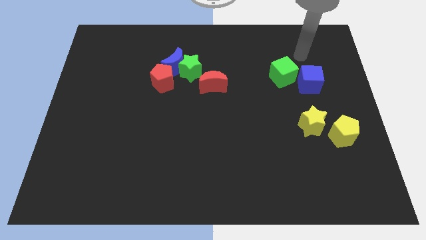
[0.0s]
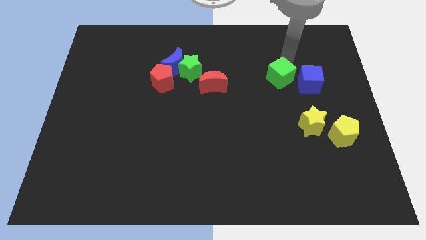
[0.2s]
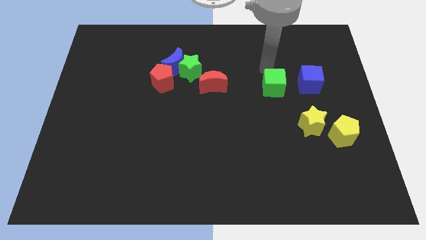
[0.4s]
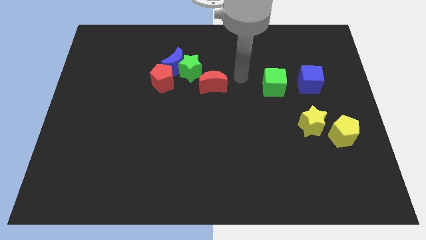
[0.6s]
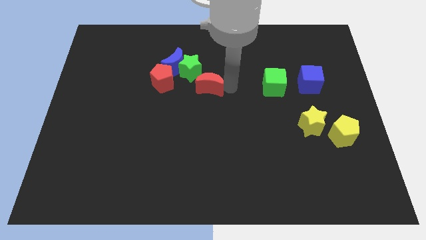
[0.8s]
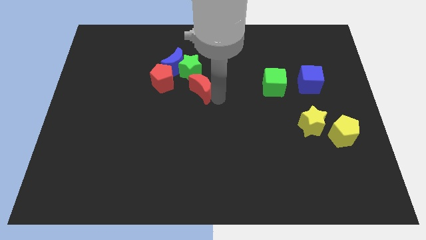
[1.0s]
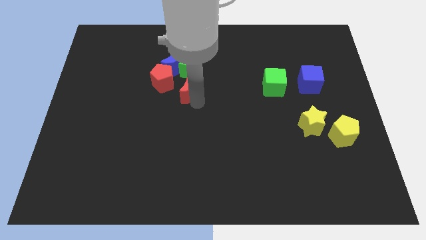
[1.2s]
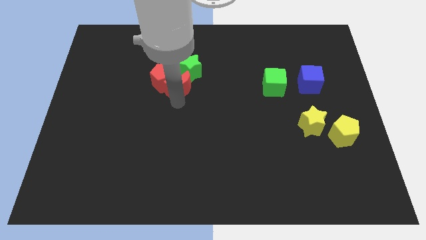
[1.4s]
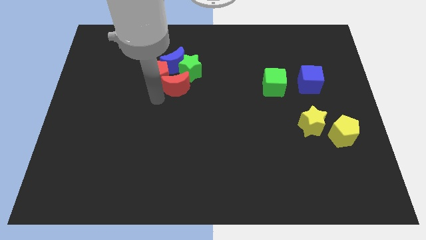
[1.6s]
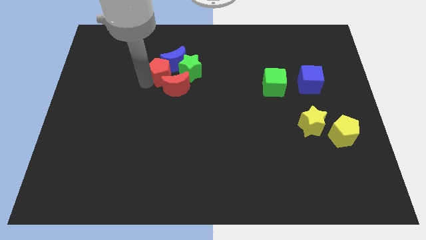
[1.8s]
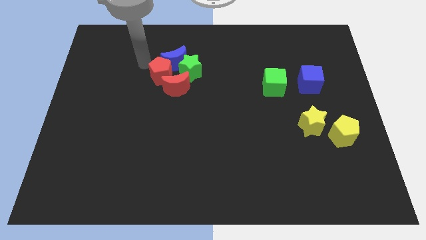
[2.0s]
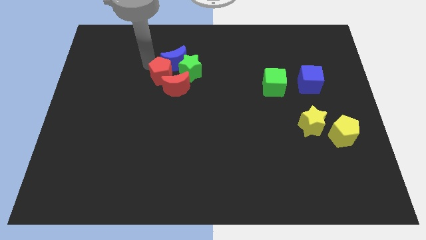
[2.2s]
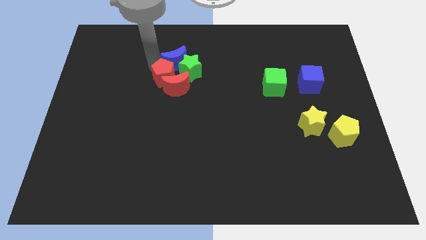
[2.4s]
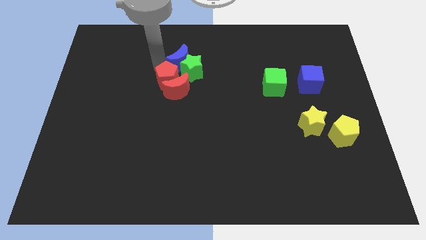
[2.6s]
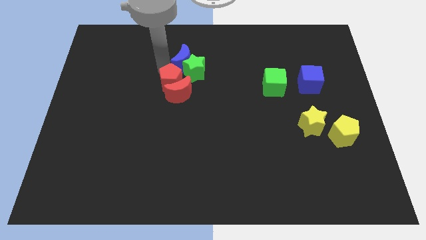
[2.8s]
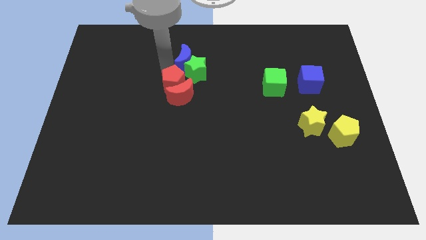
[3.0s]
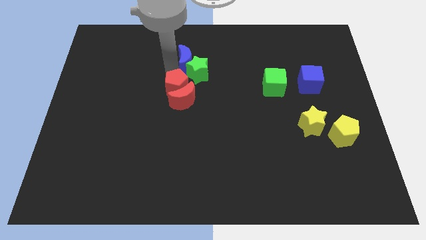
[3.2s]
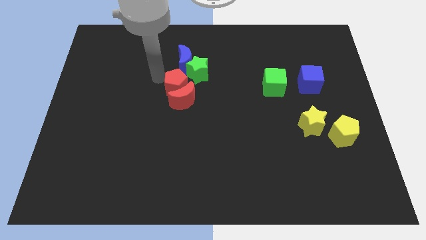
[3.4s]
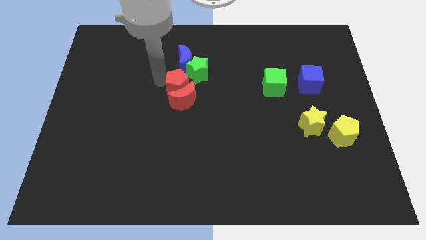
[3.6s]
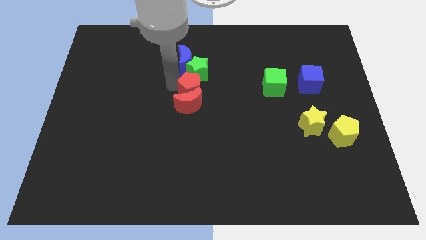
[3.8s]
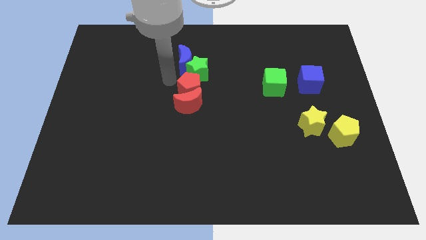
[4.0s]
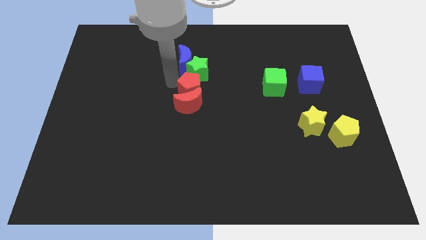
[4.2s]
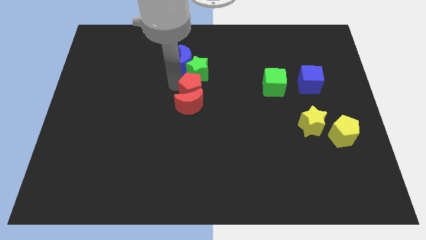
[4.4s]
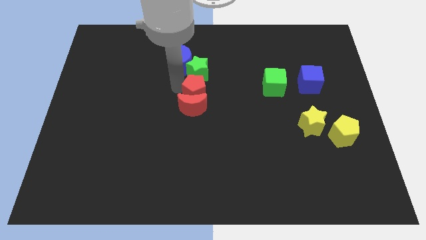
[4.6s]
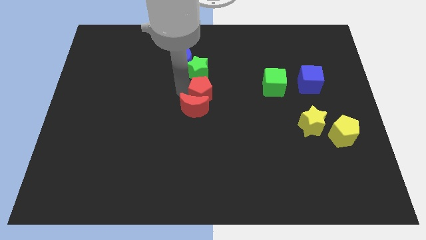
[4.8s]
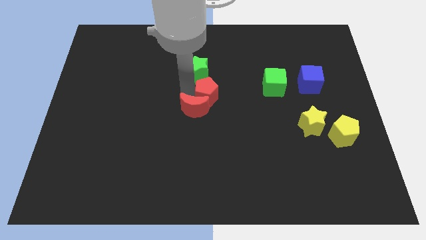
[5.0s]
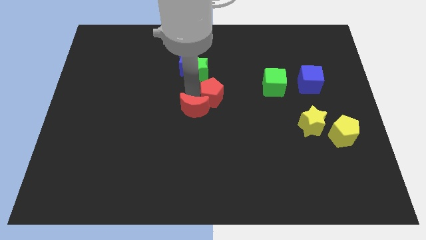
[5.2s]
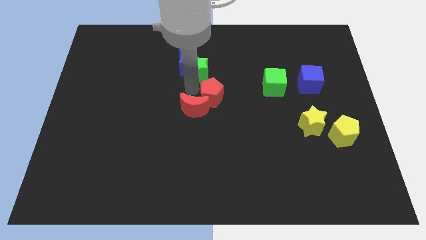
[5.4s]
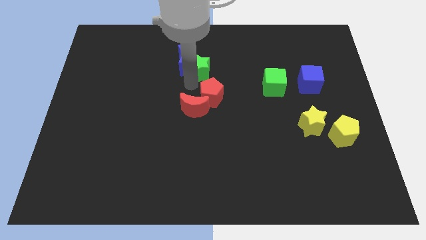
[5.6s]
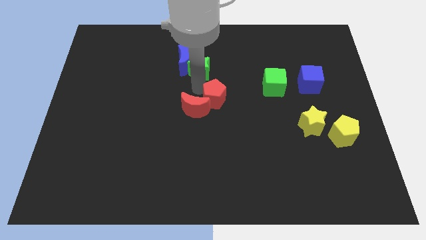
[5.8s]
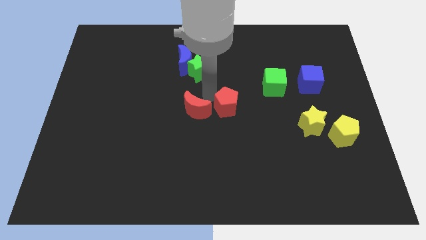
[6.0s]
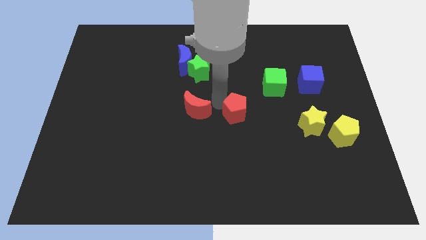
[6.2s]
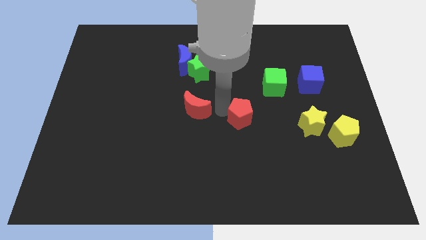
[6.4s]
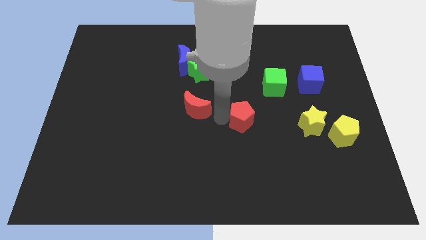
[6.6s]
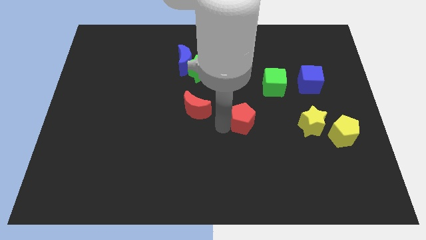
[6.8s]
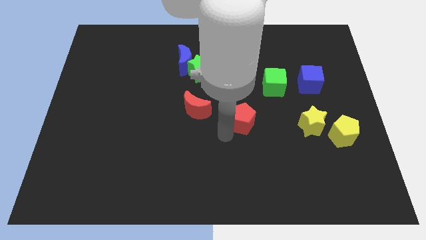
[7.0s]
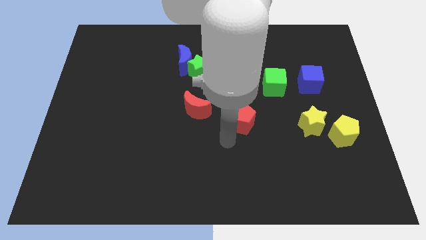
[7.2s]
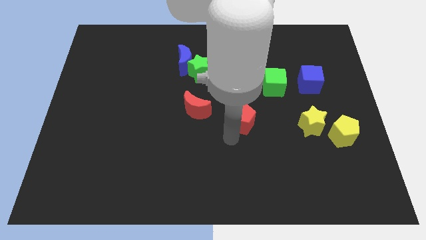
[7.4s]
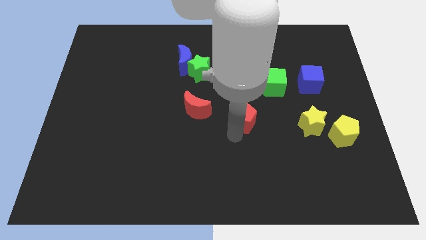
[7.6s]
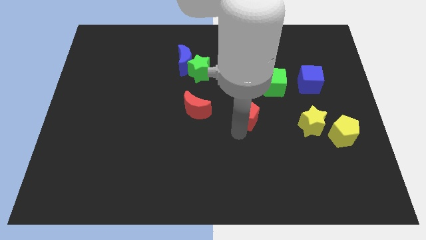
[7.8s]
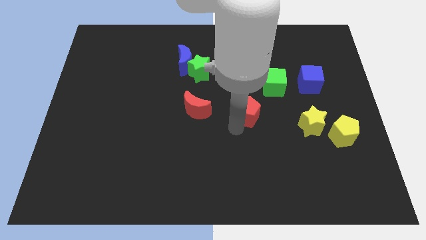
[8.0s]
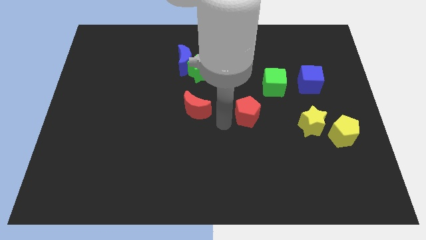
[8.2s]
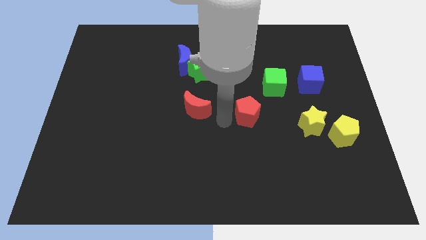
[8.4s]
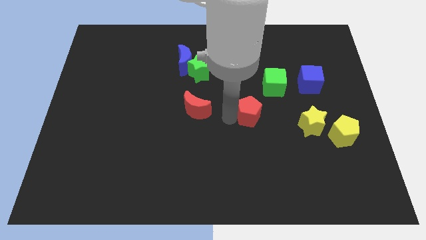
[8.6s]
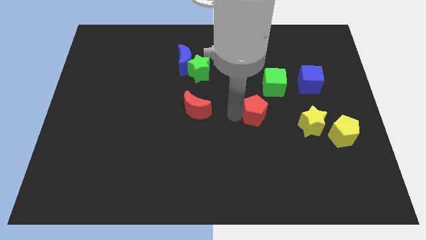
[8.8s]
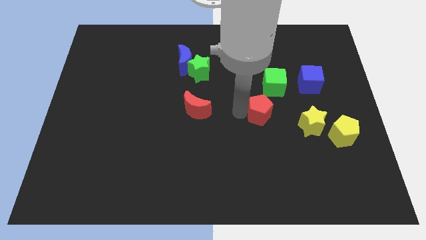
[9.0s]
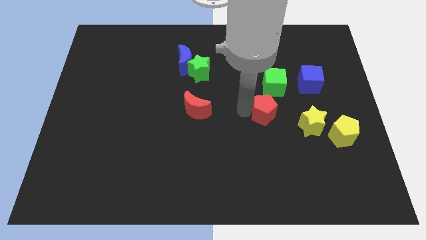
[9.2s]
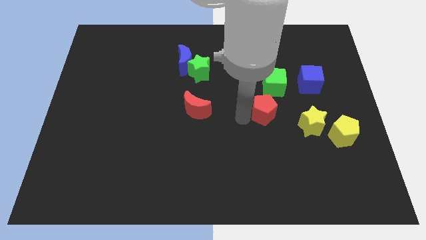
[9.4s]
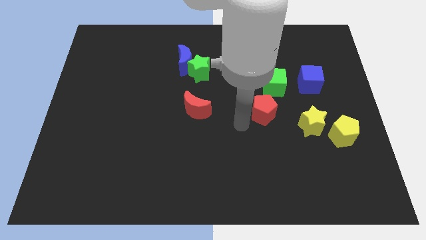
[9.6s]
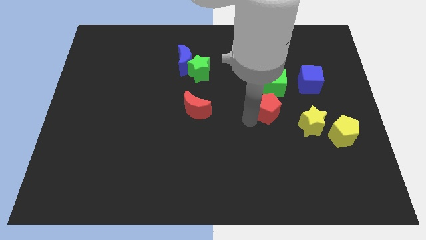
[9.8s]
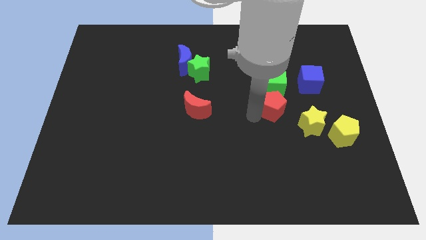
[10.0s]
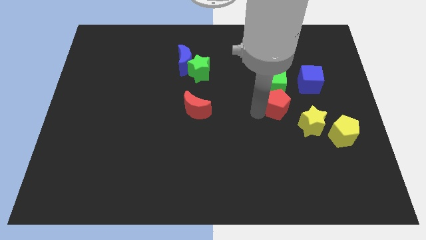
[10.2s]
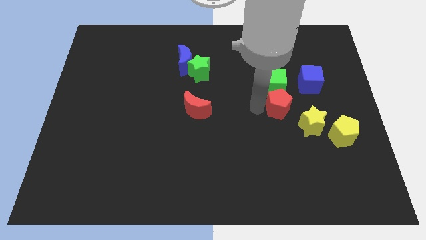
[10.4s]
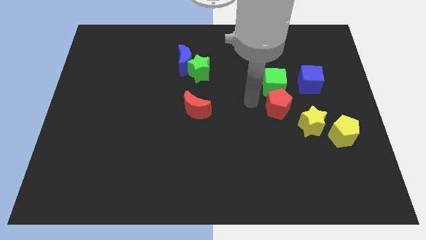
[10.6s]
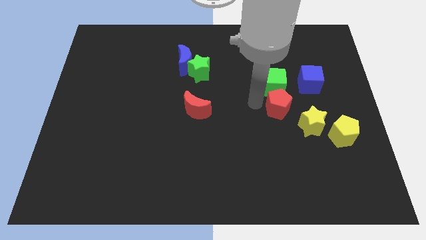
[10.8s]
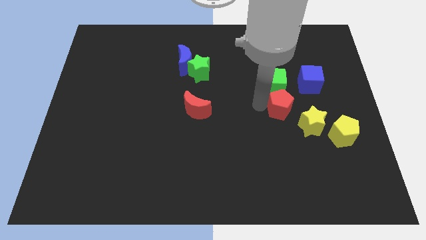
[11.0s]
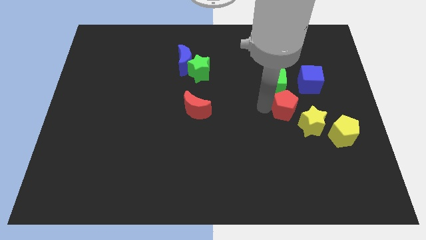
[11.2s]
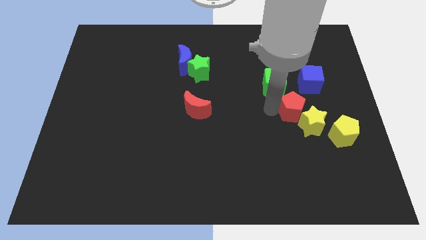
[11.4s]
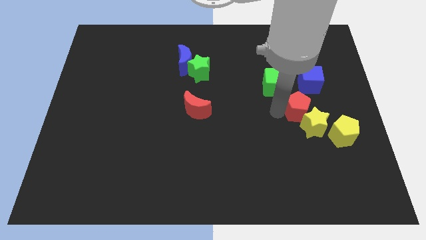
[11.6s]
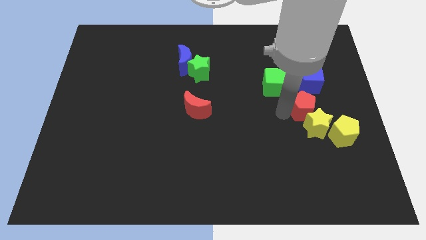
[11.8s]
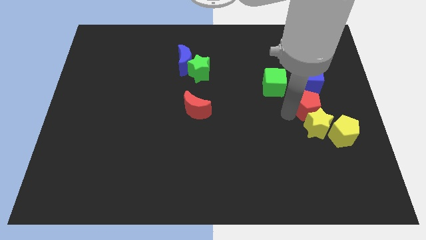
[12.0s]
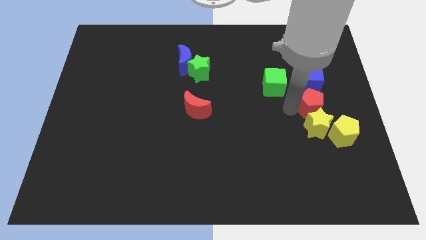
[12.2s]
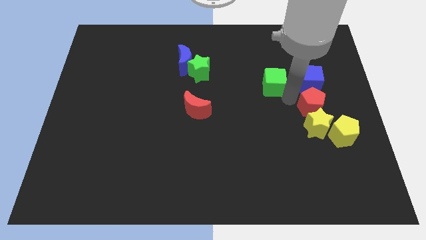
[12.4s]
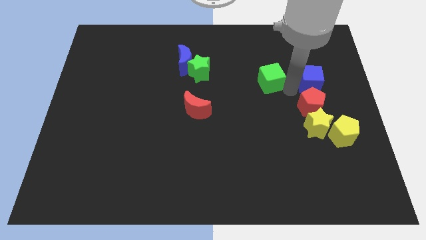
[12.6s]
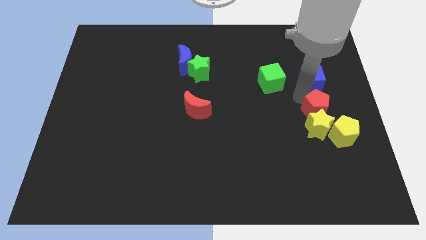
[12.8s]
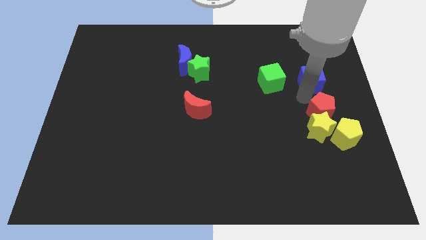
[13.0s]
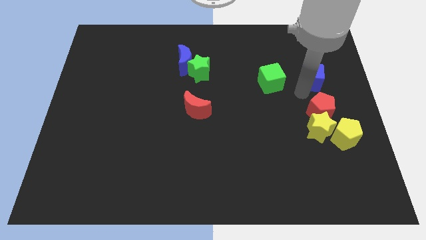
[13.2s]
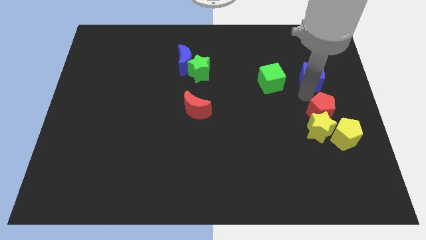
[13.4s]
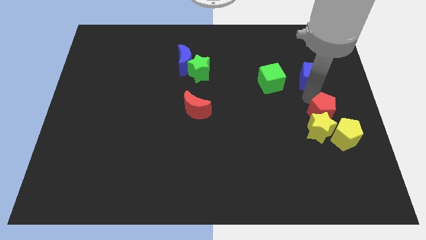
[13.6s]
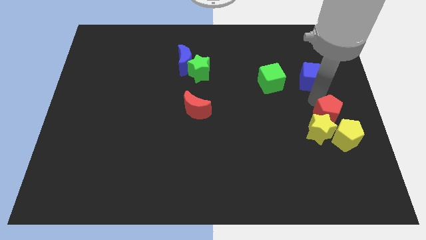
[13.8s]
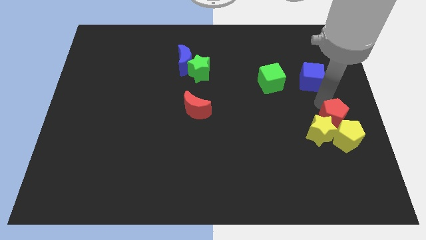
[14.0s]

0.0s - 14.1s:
move the red pentagon towards the yellow pentagon
